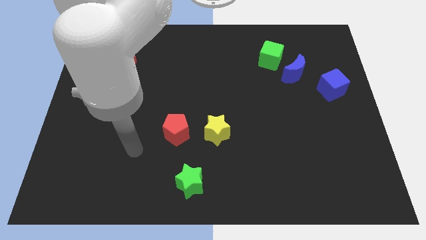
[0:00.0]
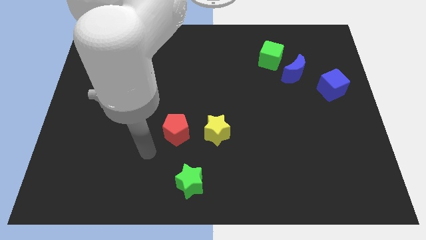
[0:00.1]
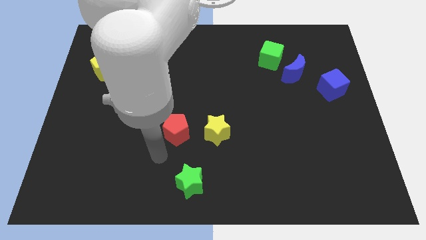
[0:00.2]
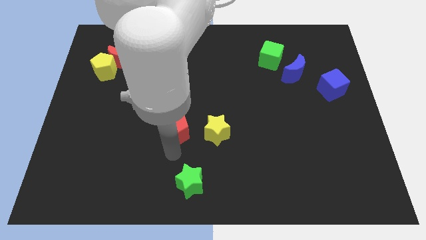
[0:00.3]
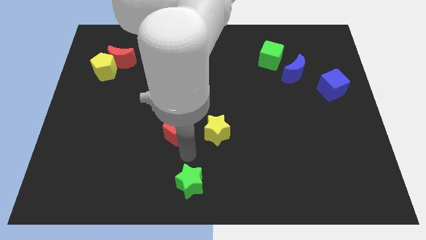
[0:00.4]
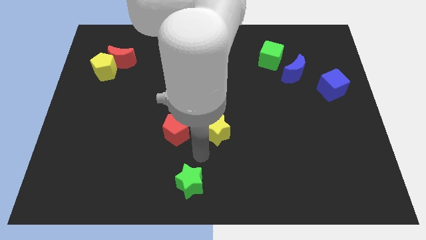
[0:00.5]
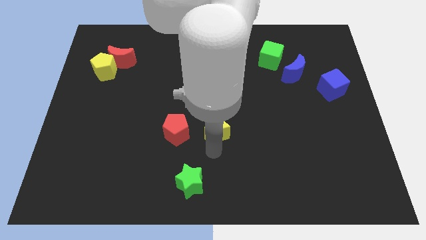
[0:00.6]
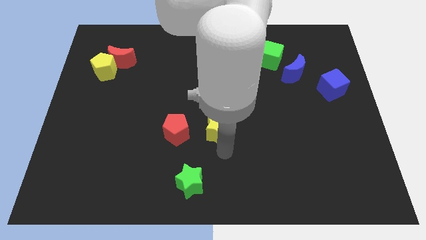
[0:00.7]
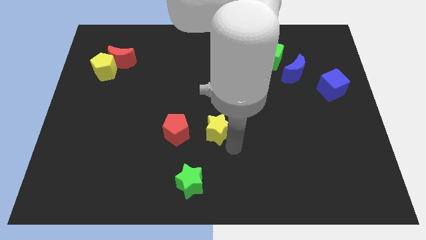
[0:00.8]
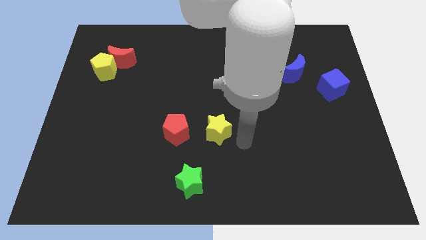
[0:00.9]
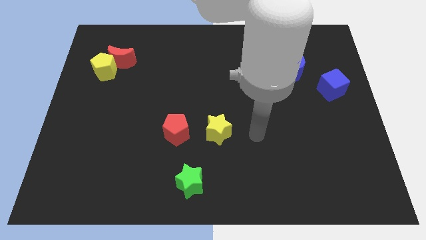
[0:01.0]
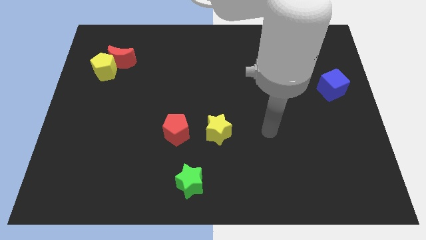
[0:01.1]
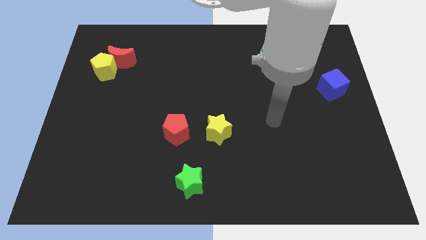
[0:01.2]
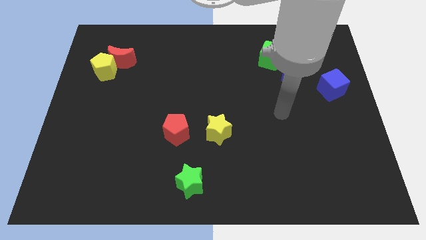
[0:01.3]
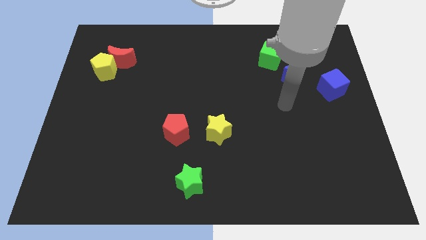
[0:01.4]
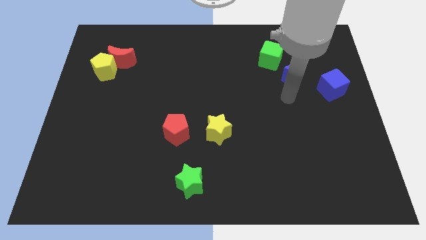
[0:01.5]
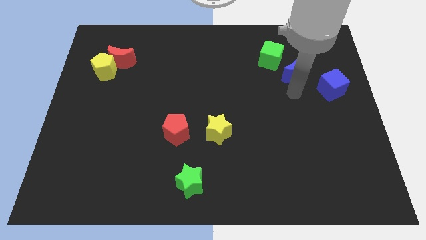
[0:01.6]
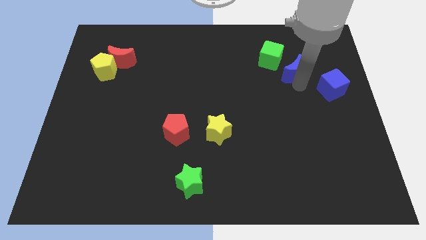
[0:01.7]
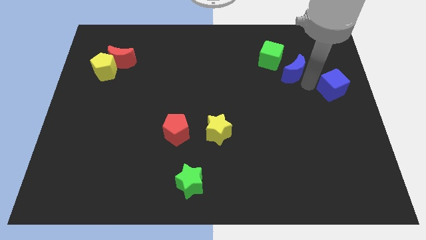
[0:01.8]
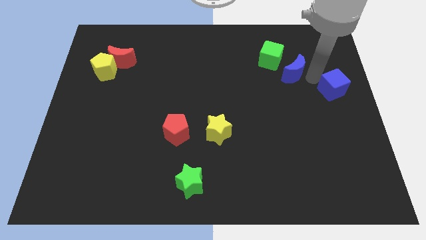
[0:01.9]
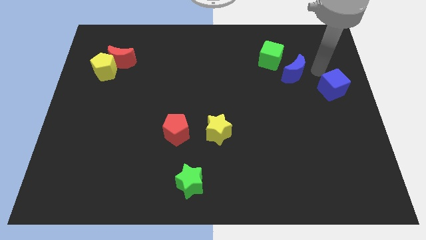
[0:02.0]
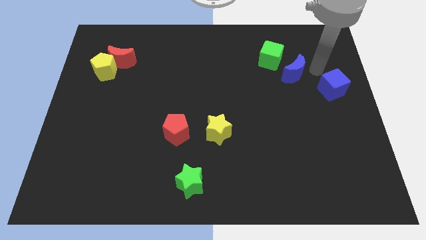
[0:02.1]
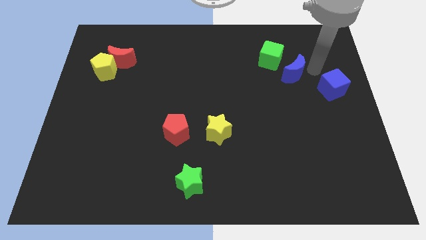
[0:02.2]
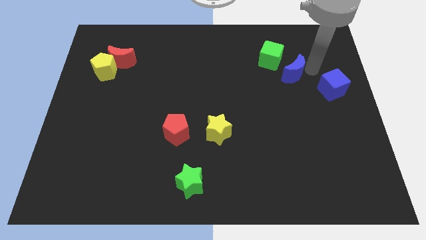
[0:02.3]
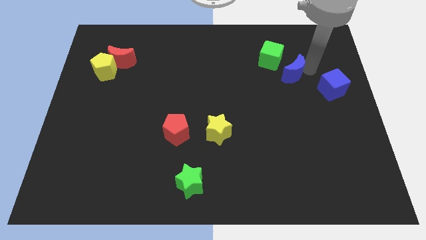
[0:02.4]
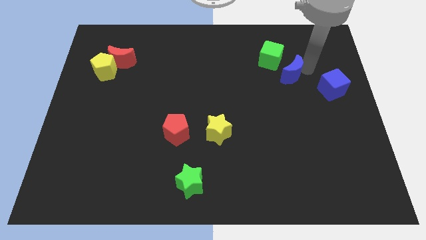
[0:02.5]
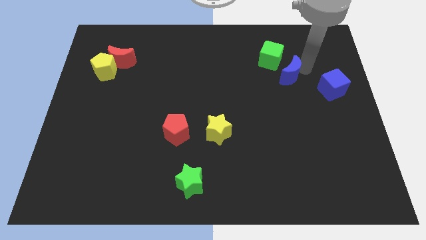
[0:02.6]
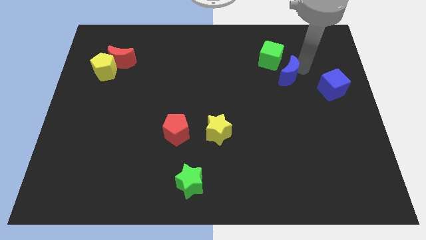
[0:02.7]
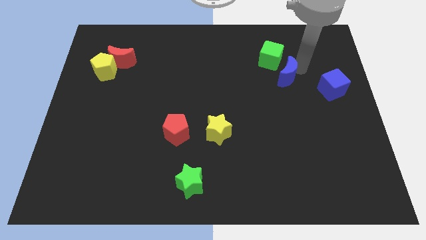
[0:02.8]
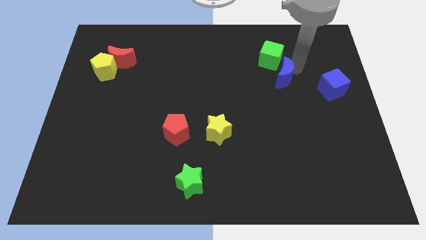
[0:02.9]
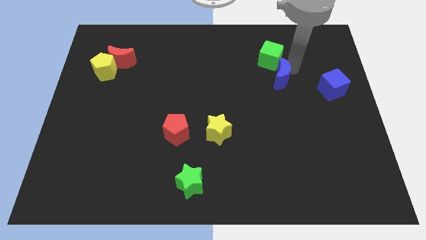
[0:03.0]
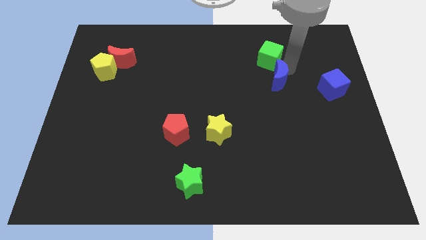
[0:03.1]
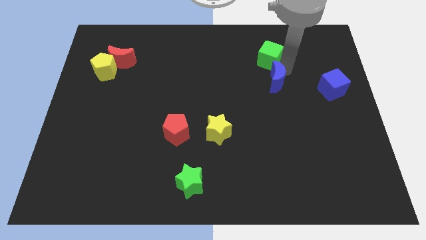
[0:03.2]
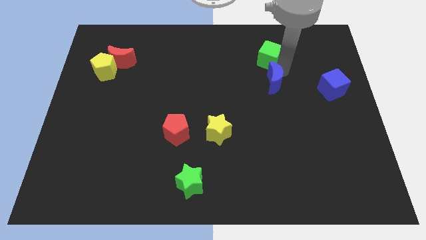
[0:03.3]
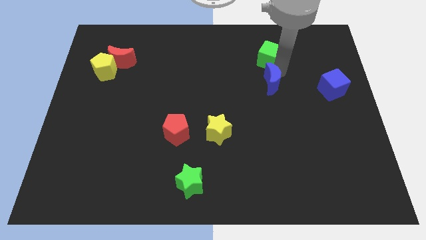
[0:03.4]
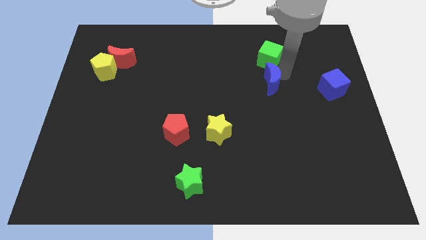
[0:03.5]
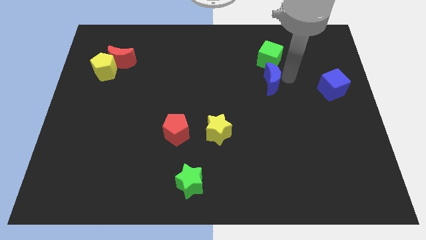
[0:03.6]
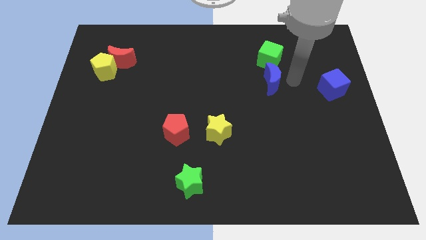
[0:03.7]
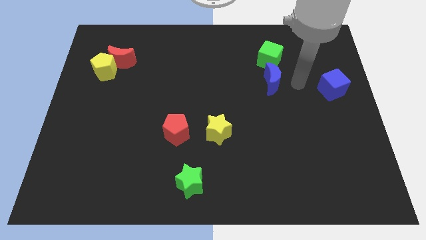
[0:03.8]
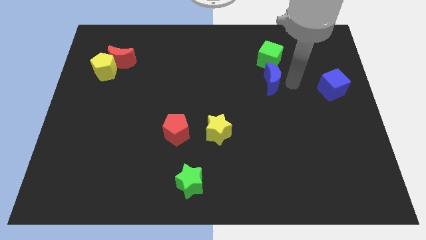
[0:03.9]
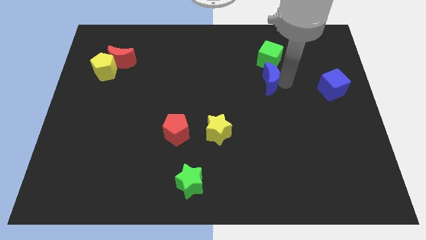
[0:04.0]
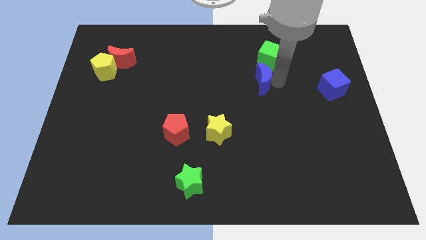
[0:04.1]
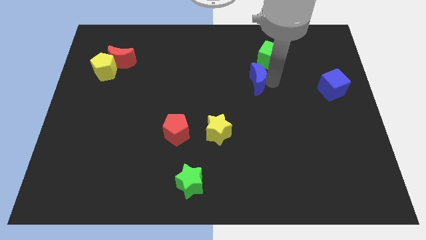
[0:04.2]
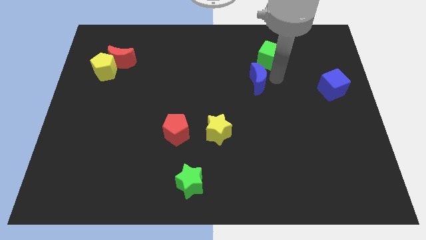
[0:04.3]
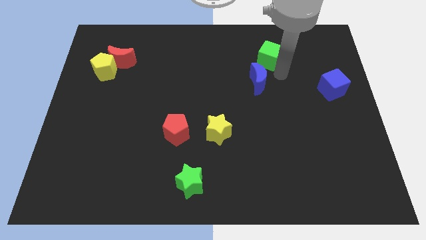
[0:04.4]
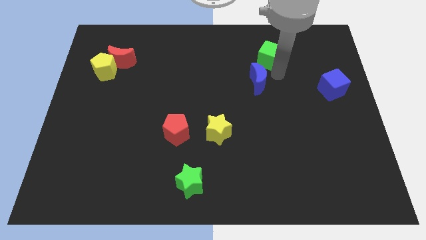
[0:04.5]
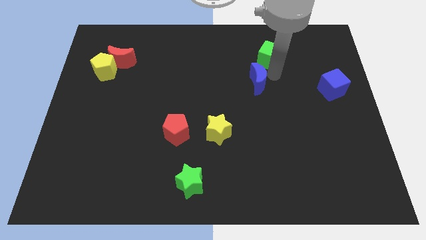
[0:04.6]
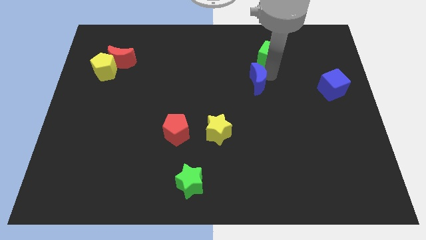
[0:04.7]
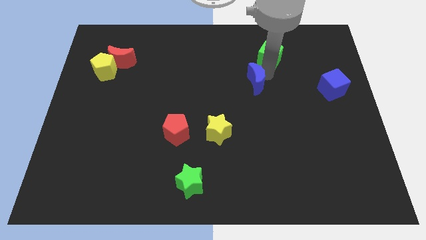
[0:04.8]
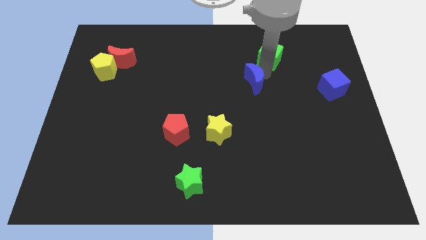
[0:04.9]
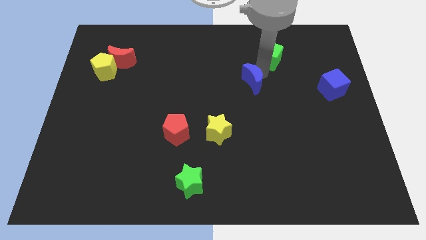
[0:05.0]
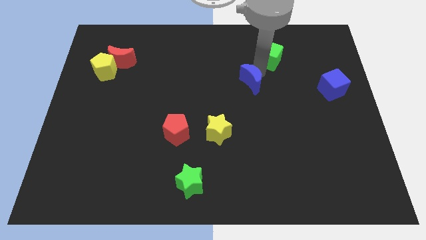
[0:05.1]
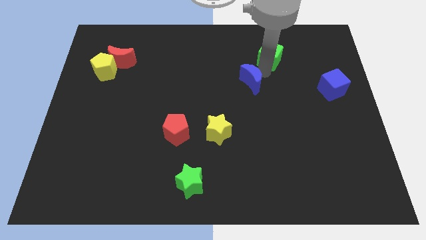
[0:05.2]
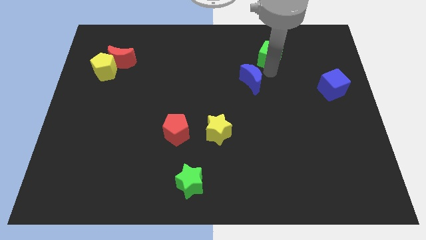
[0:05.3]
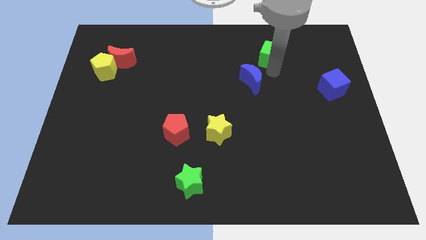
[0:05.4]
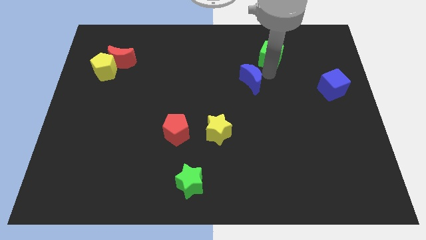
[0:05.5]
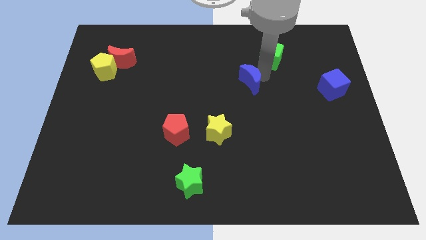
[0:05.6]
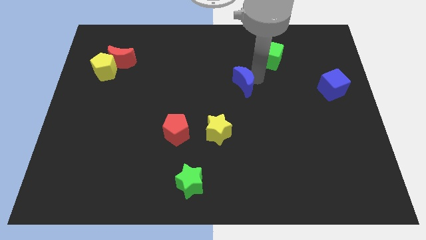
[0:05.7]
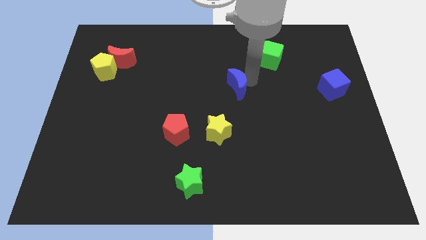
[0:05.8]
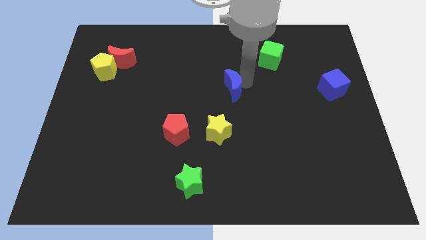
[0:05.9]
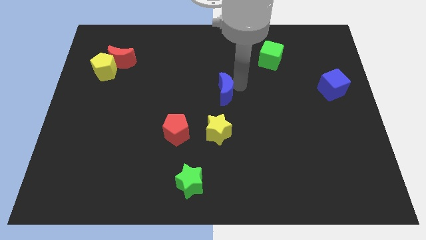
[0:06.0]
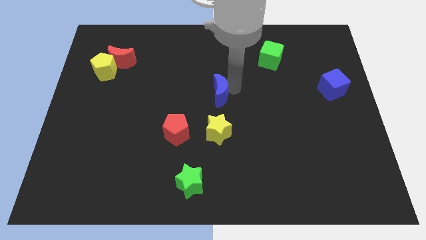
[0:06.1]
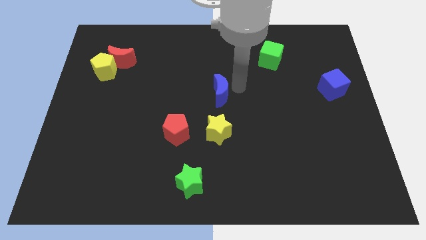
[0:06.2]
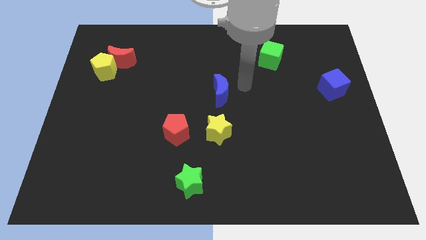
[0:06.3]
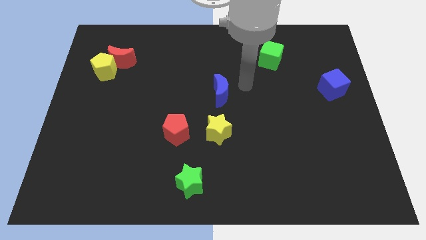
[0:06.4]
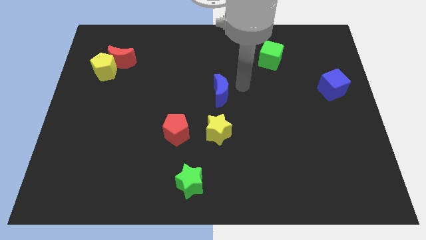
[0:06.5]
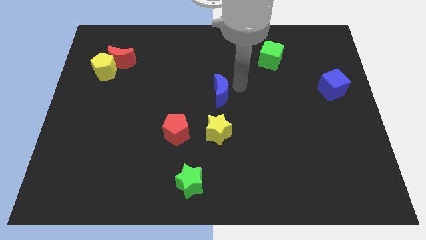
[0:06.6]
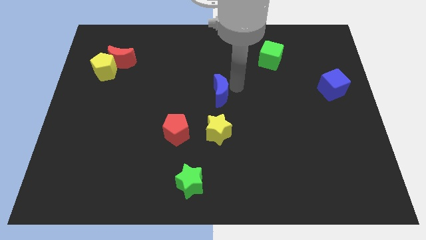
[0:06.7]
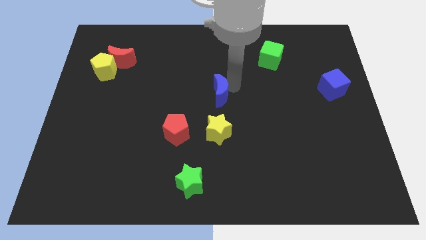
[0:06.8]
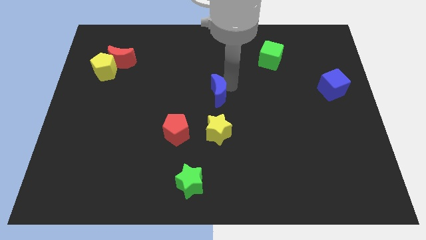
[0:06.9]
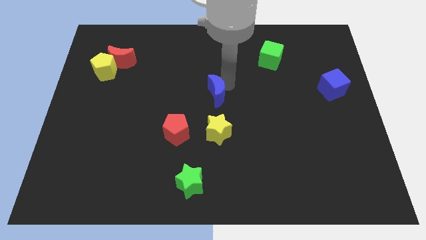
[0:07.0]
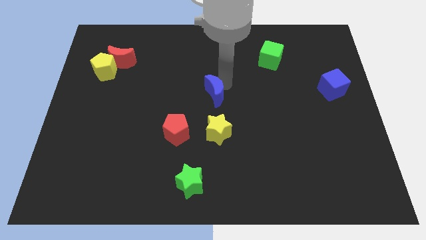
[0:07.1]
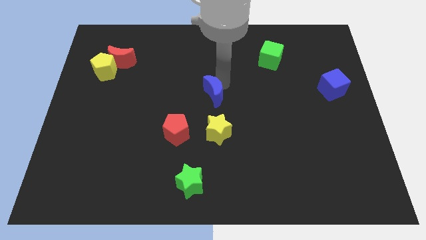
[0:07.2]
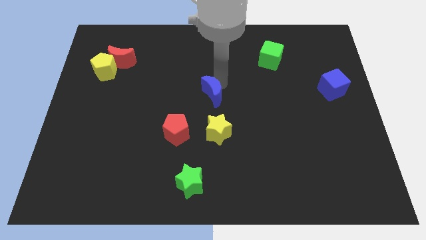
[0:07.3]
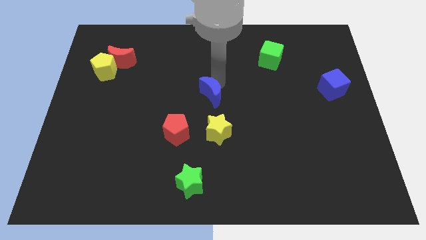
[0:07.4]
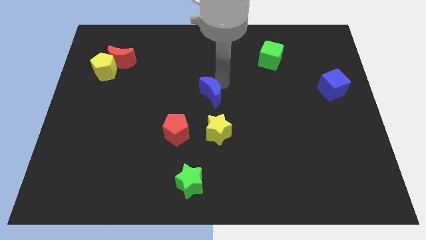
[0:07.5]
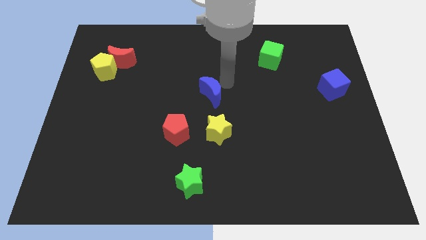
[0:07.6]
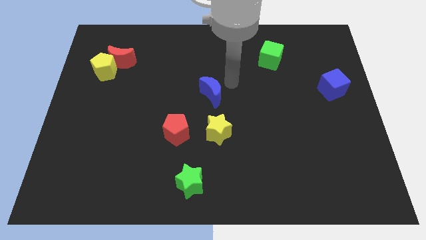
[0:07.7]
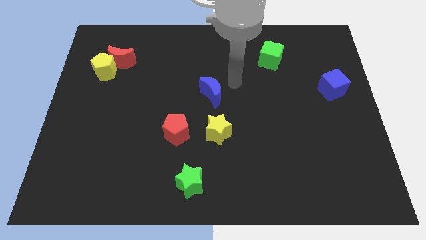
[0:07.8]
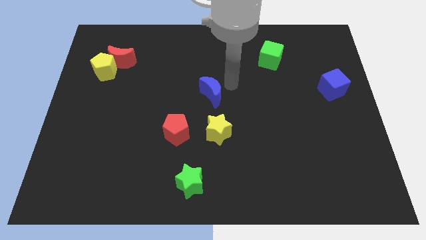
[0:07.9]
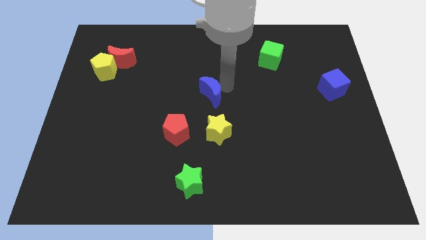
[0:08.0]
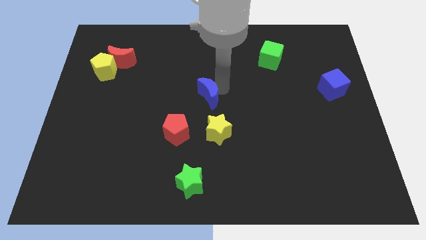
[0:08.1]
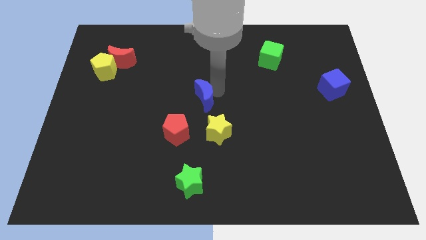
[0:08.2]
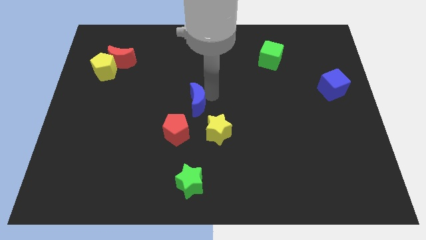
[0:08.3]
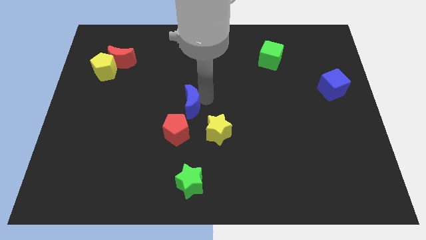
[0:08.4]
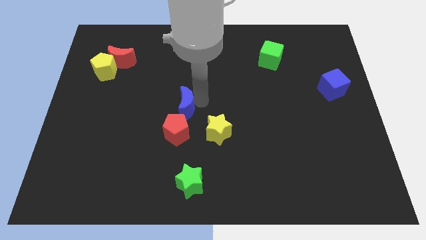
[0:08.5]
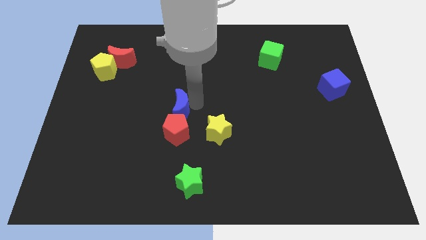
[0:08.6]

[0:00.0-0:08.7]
put the blue moon to the top left side of the red pentagon
